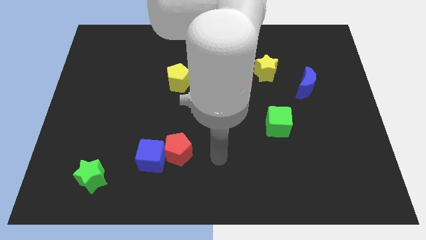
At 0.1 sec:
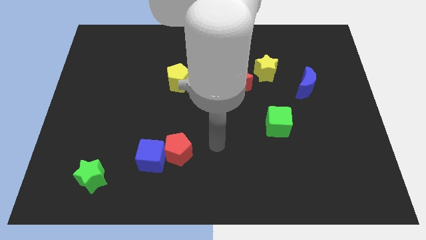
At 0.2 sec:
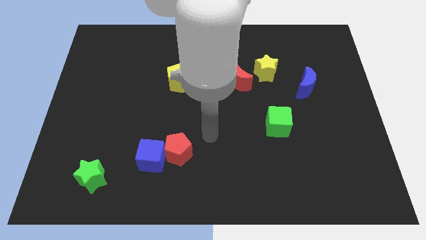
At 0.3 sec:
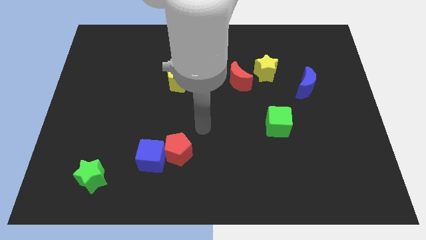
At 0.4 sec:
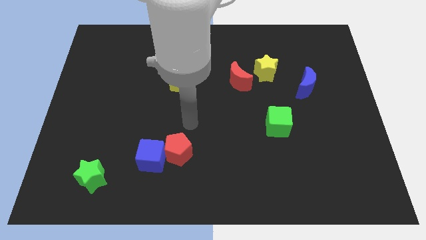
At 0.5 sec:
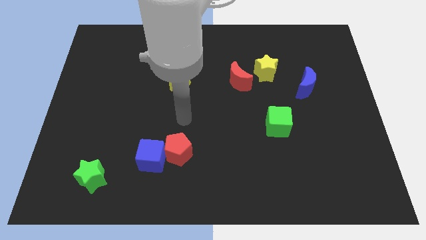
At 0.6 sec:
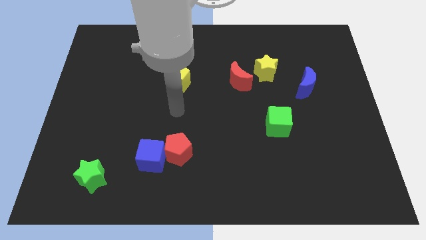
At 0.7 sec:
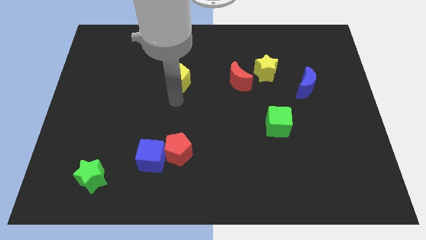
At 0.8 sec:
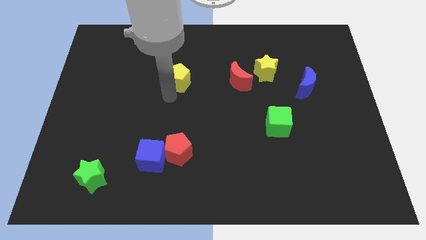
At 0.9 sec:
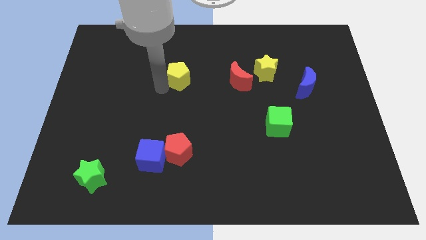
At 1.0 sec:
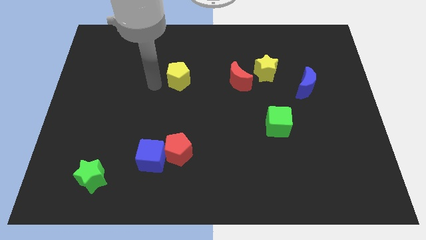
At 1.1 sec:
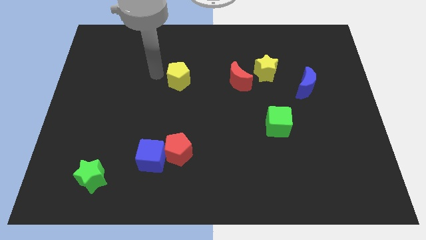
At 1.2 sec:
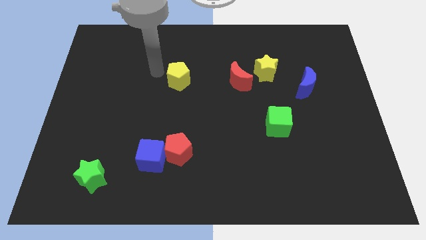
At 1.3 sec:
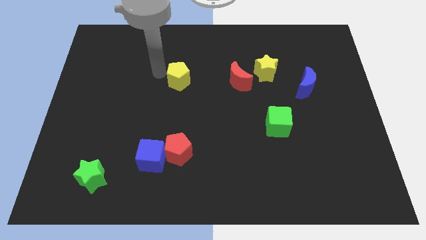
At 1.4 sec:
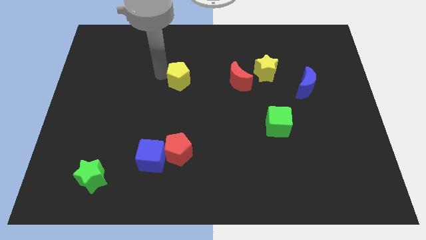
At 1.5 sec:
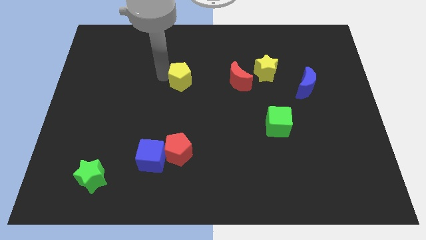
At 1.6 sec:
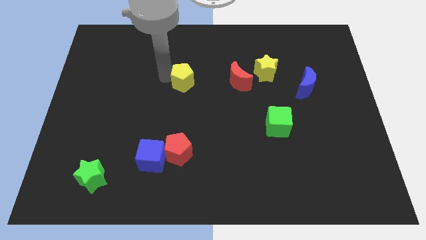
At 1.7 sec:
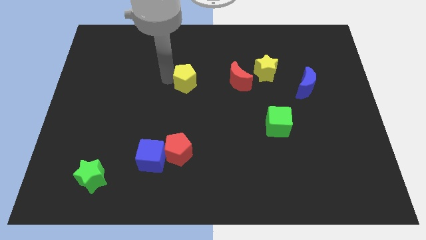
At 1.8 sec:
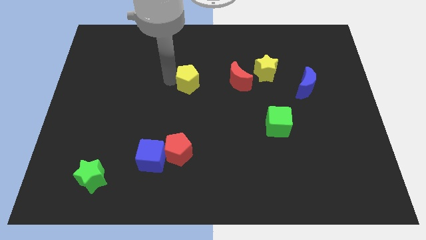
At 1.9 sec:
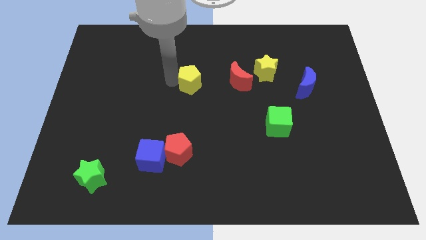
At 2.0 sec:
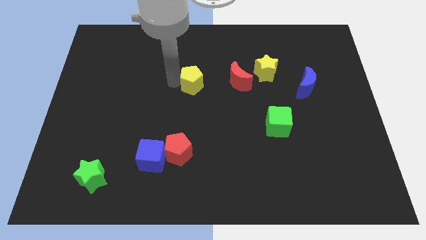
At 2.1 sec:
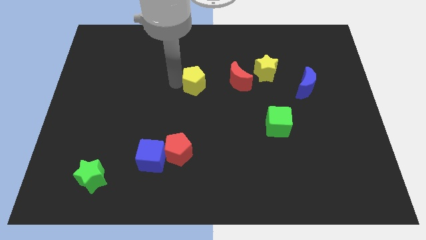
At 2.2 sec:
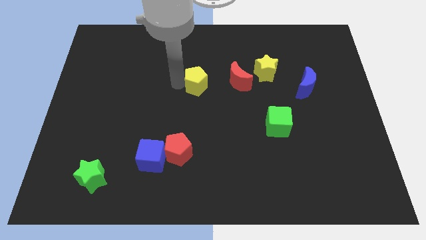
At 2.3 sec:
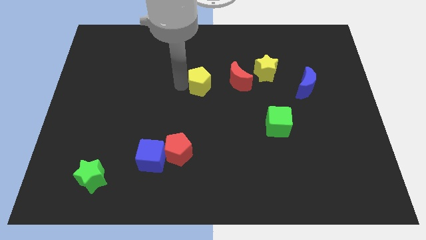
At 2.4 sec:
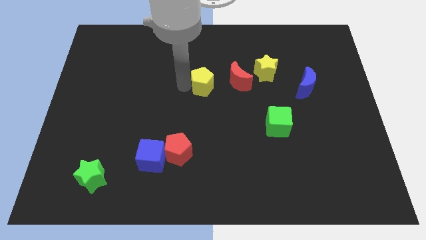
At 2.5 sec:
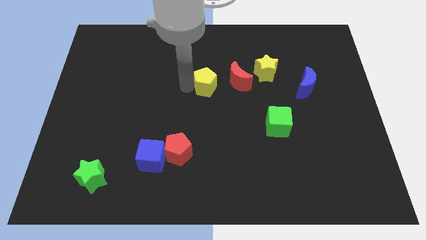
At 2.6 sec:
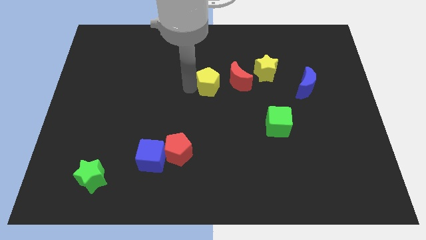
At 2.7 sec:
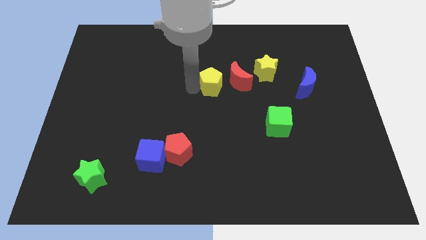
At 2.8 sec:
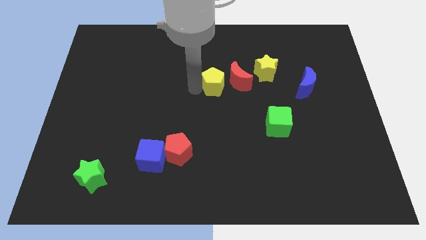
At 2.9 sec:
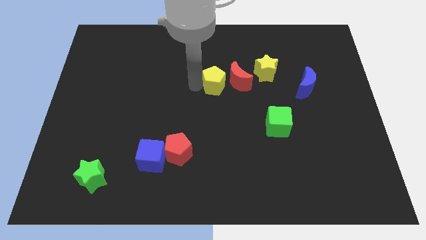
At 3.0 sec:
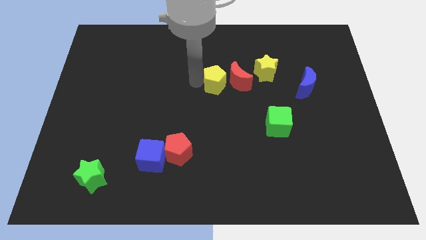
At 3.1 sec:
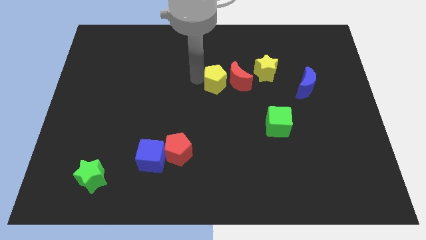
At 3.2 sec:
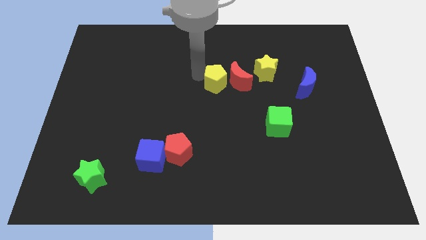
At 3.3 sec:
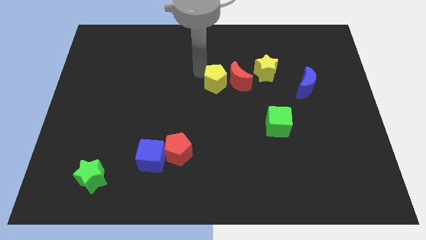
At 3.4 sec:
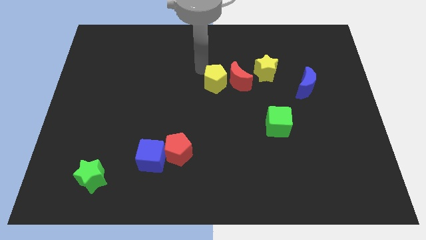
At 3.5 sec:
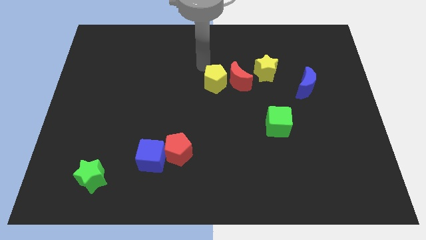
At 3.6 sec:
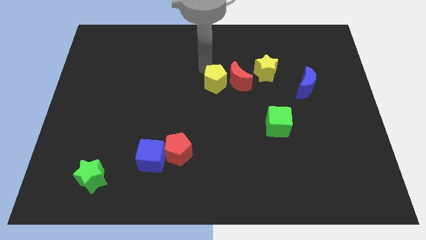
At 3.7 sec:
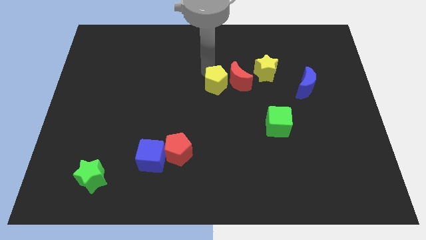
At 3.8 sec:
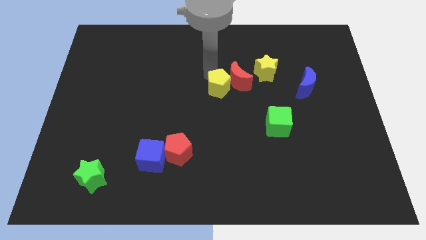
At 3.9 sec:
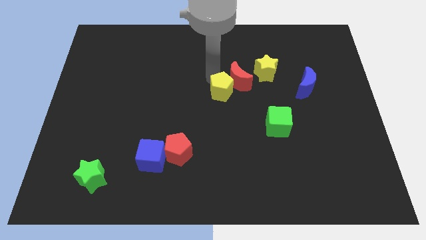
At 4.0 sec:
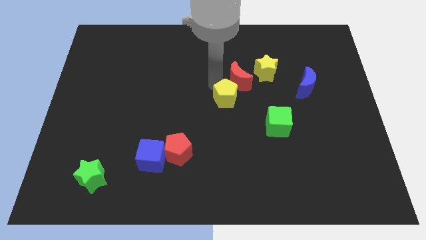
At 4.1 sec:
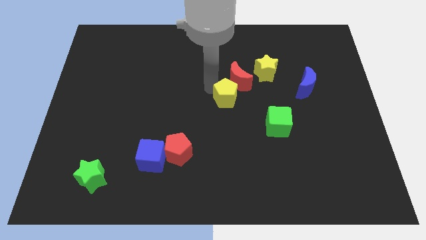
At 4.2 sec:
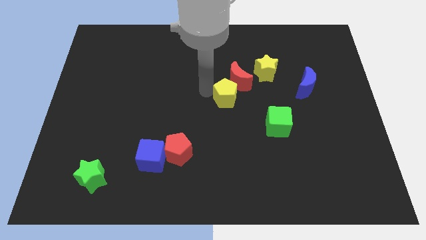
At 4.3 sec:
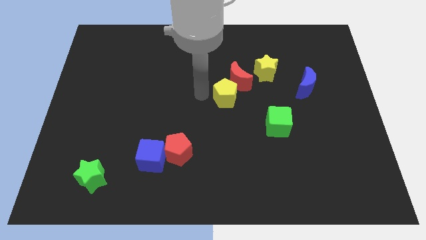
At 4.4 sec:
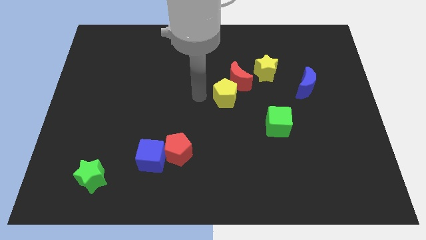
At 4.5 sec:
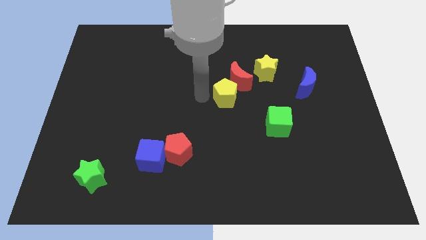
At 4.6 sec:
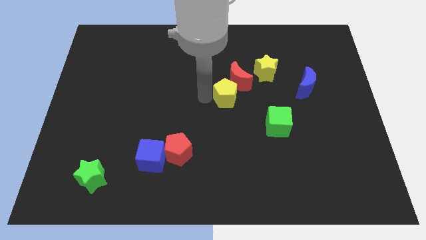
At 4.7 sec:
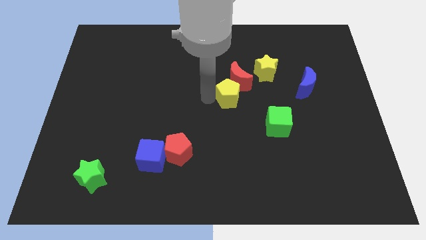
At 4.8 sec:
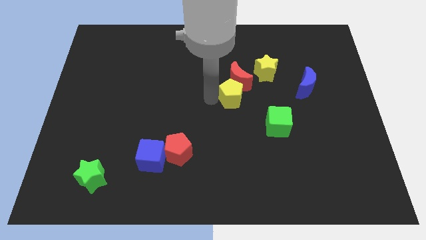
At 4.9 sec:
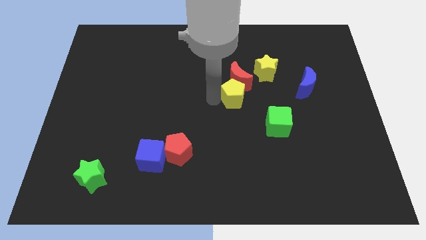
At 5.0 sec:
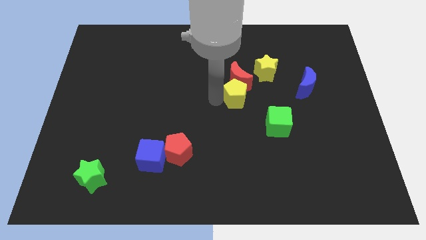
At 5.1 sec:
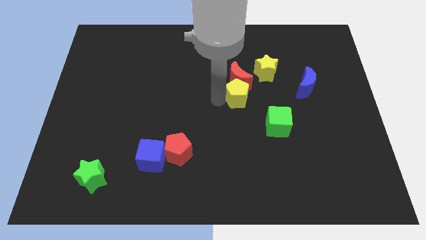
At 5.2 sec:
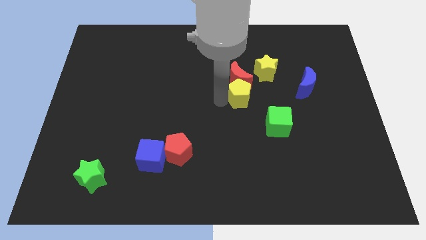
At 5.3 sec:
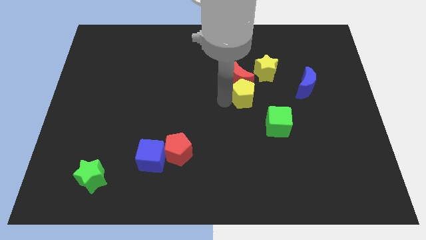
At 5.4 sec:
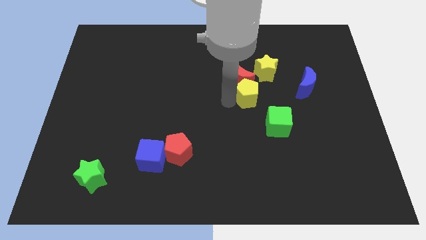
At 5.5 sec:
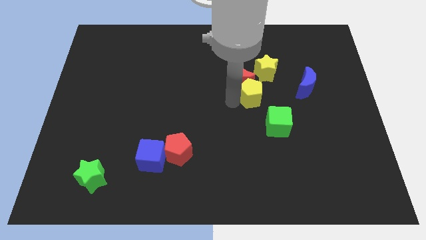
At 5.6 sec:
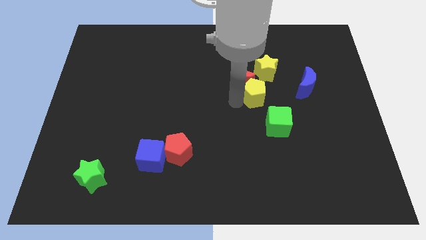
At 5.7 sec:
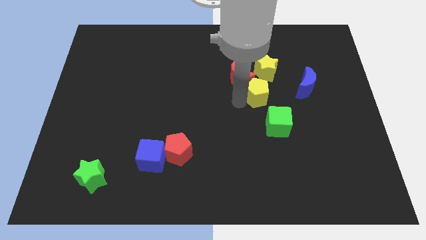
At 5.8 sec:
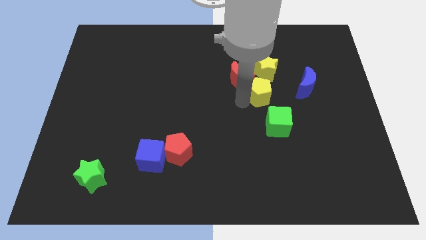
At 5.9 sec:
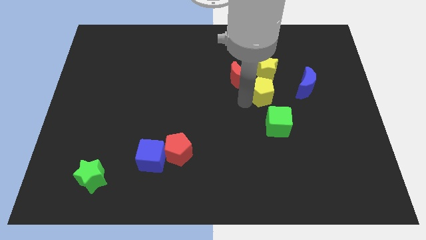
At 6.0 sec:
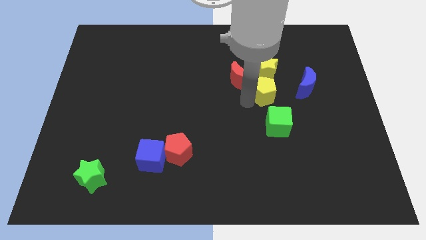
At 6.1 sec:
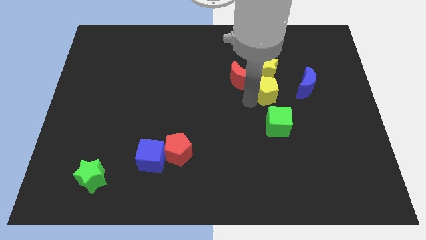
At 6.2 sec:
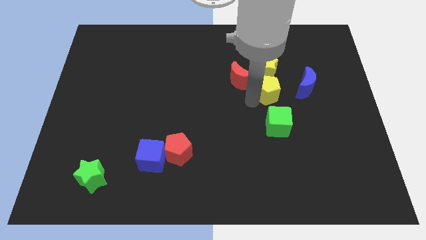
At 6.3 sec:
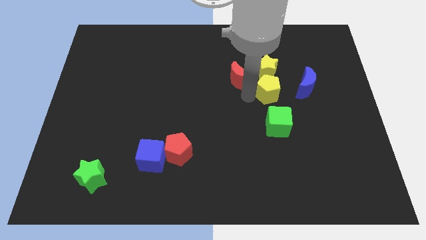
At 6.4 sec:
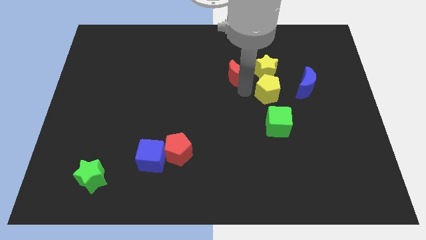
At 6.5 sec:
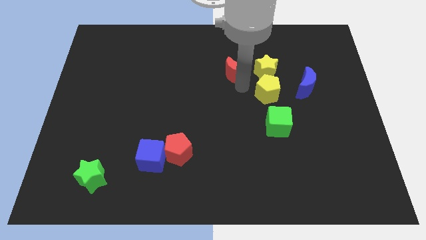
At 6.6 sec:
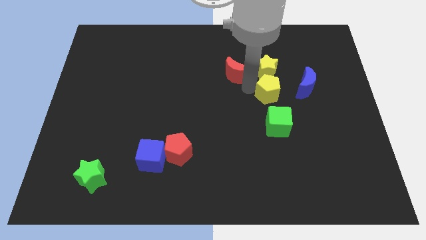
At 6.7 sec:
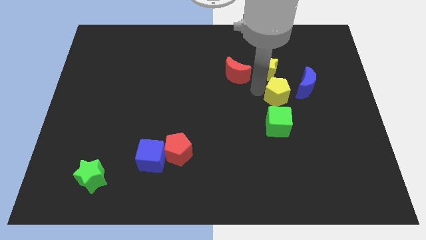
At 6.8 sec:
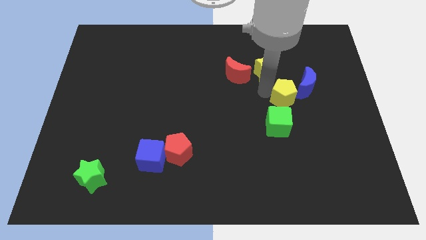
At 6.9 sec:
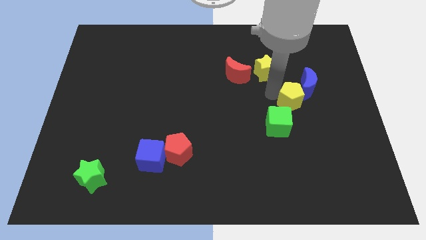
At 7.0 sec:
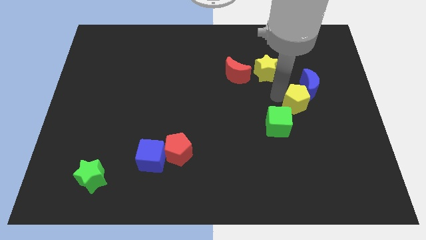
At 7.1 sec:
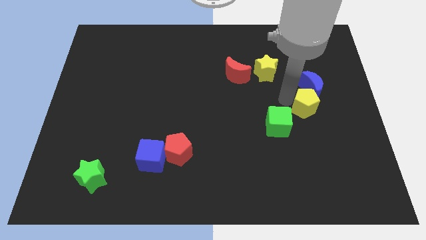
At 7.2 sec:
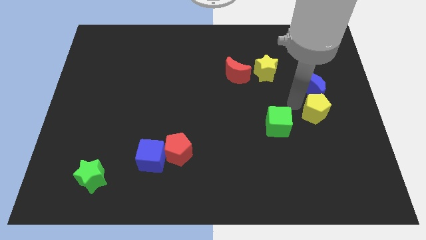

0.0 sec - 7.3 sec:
put the yellow pentagon diagonally down and to the right of the blue moon
